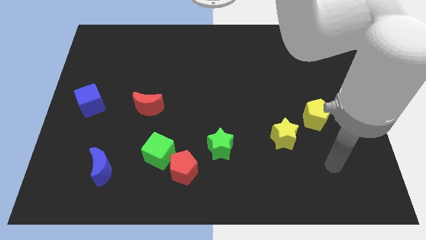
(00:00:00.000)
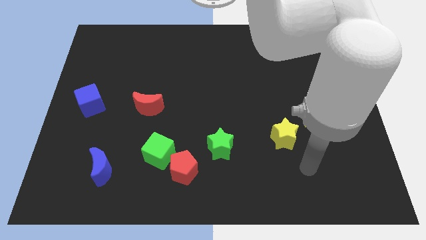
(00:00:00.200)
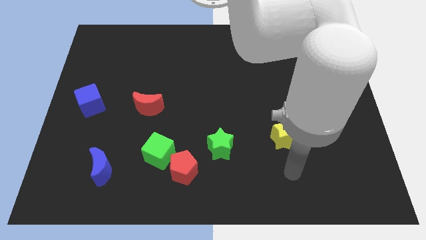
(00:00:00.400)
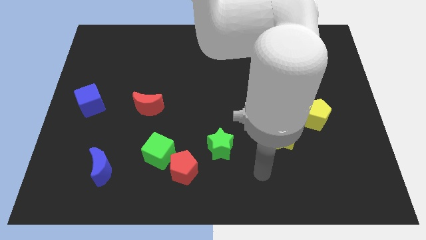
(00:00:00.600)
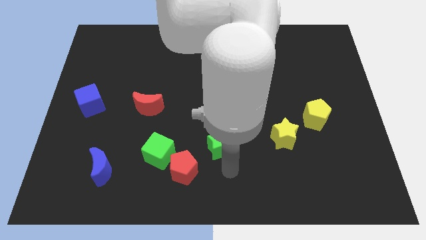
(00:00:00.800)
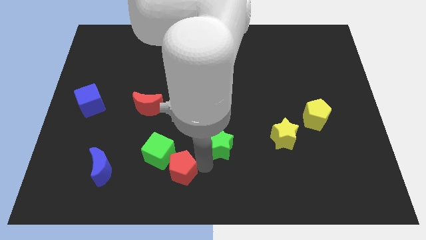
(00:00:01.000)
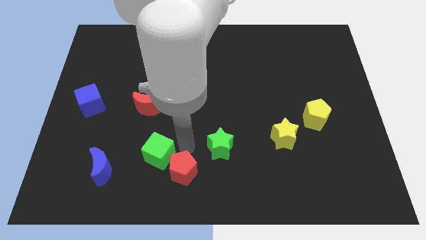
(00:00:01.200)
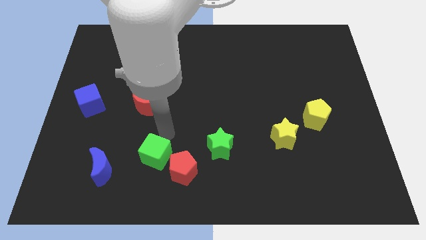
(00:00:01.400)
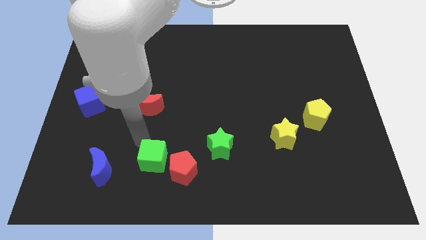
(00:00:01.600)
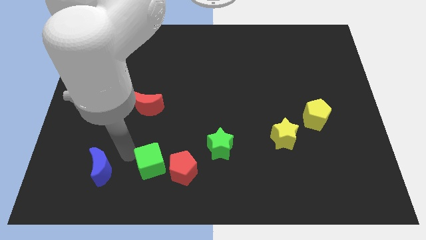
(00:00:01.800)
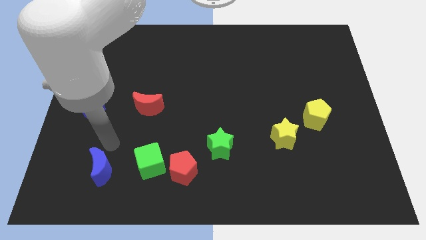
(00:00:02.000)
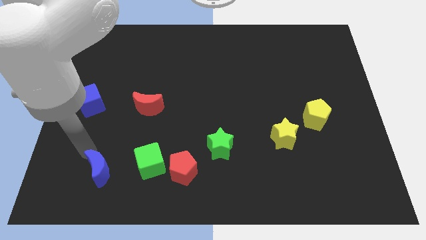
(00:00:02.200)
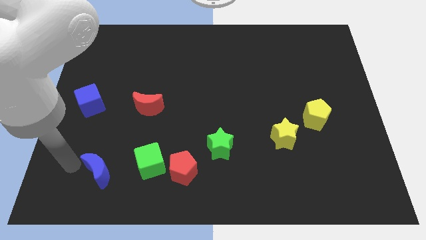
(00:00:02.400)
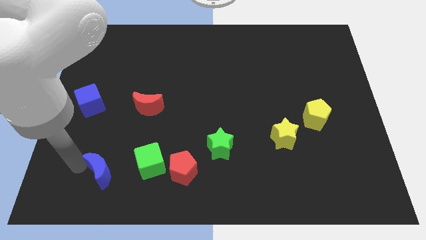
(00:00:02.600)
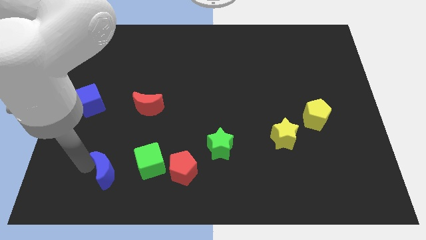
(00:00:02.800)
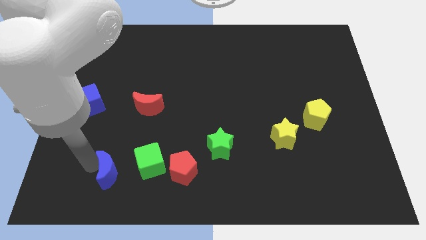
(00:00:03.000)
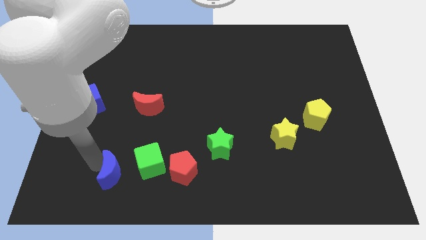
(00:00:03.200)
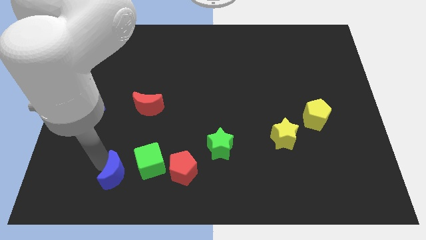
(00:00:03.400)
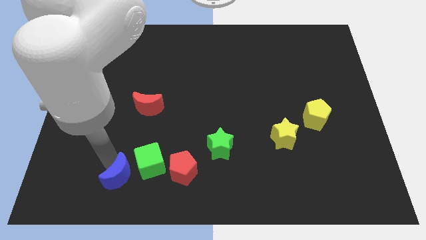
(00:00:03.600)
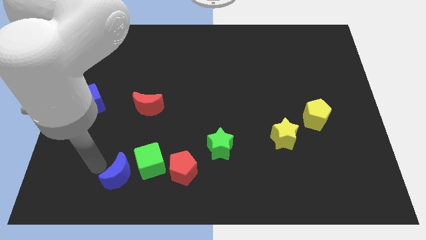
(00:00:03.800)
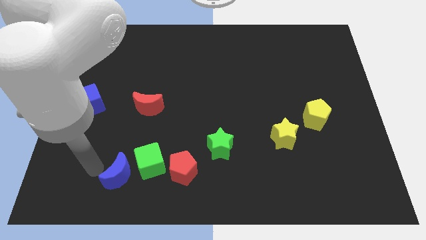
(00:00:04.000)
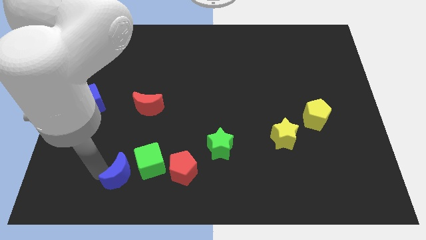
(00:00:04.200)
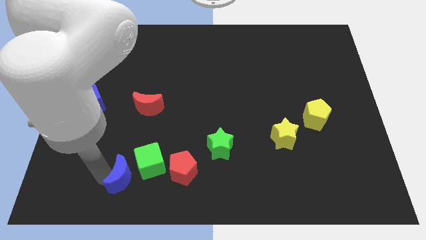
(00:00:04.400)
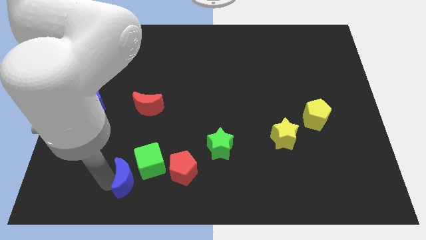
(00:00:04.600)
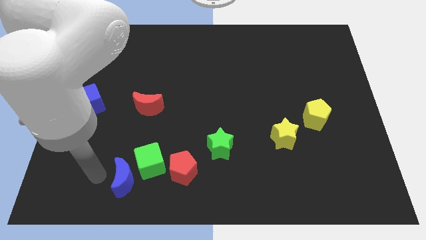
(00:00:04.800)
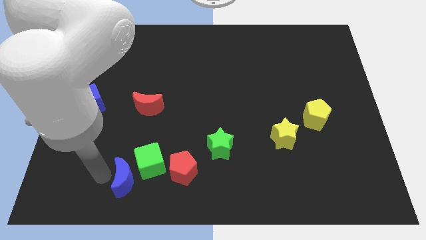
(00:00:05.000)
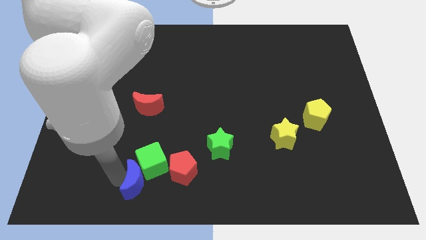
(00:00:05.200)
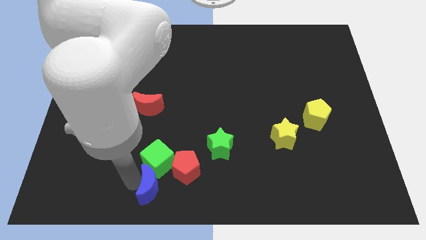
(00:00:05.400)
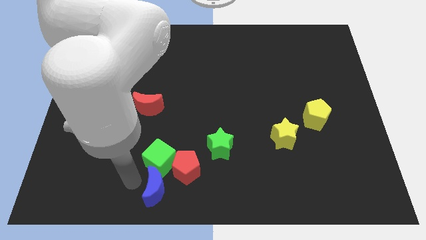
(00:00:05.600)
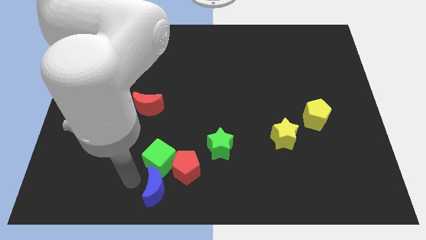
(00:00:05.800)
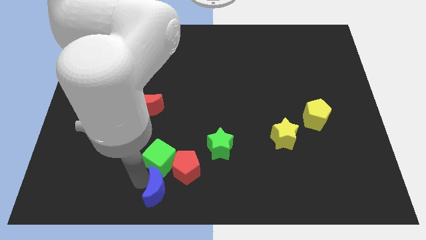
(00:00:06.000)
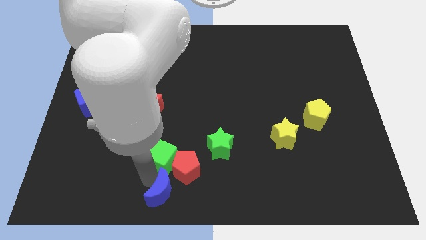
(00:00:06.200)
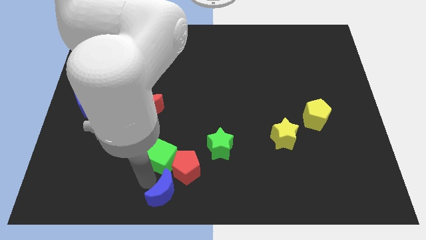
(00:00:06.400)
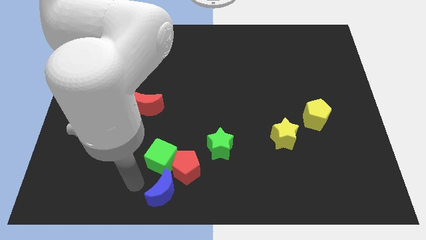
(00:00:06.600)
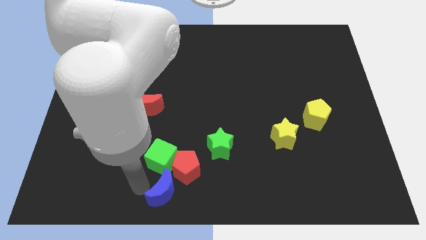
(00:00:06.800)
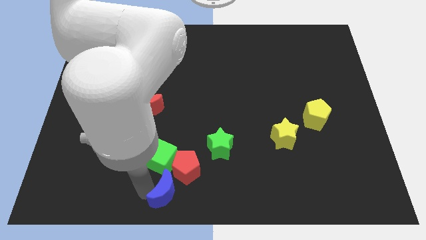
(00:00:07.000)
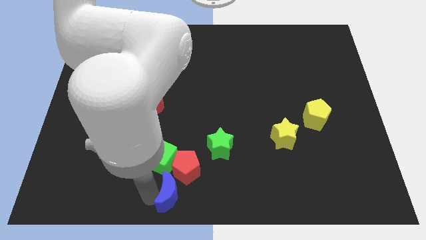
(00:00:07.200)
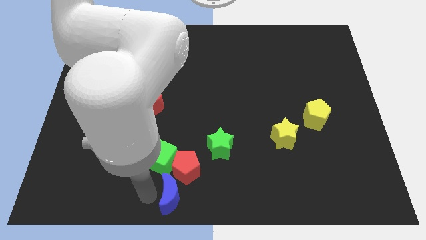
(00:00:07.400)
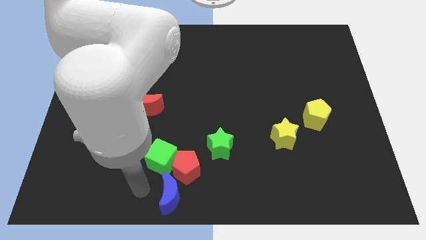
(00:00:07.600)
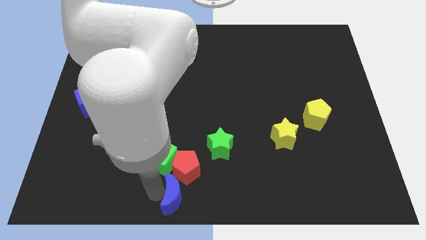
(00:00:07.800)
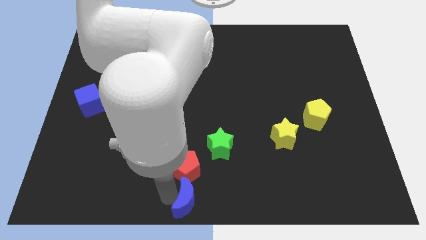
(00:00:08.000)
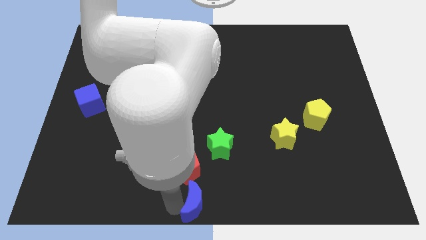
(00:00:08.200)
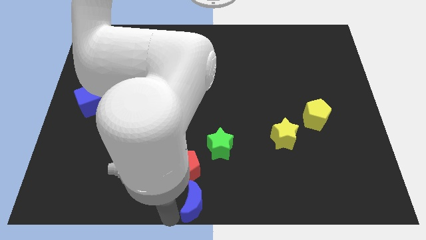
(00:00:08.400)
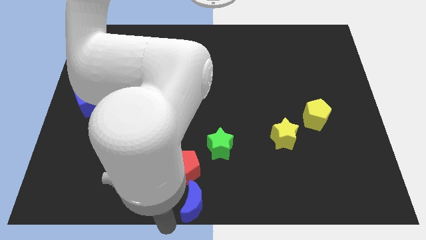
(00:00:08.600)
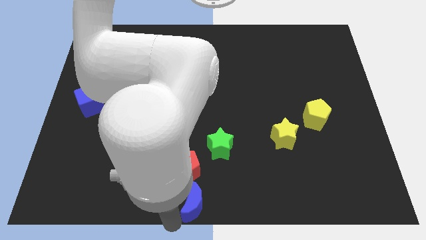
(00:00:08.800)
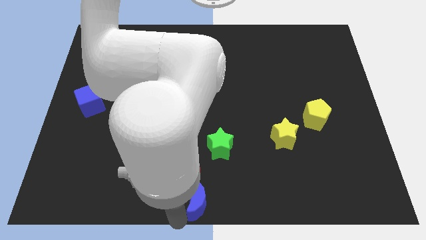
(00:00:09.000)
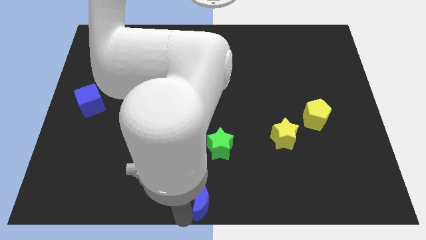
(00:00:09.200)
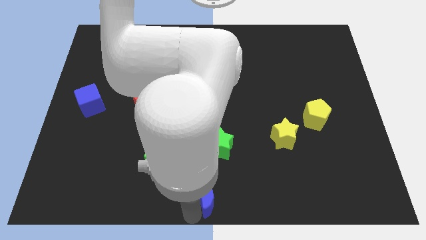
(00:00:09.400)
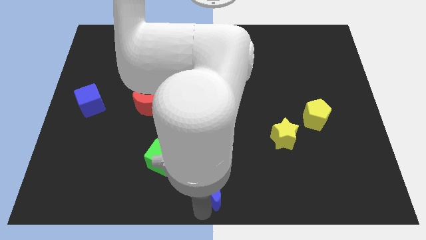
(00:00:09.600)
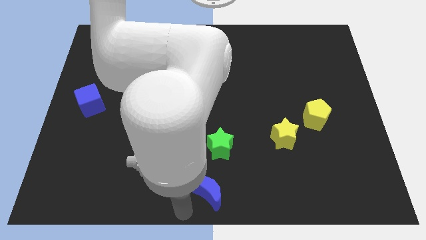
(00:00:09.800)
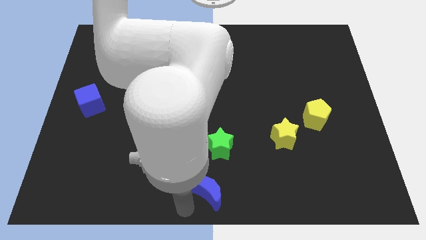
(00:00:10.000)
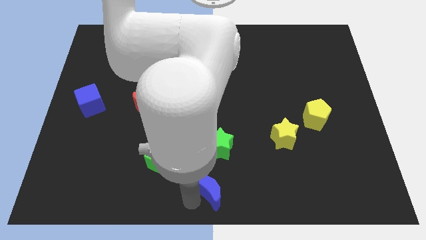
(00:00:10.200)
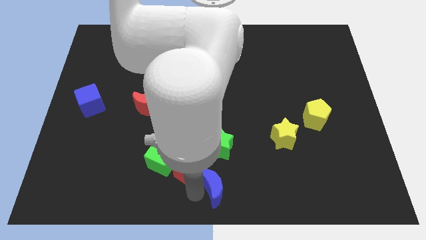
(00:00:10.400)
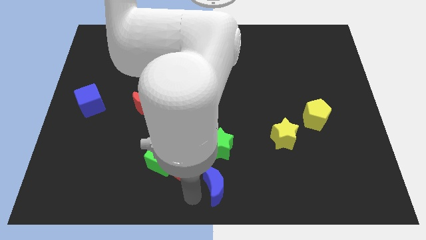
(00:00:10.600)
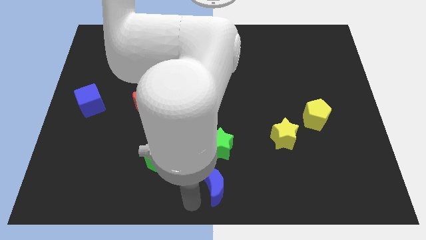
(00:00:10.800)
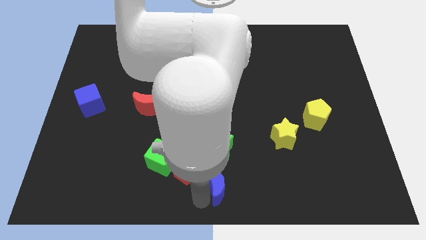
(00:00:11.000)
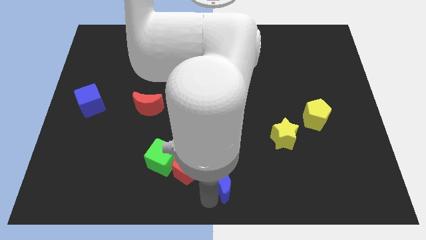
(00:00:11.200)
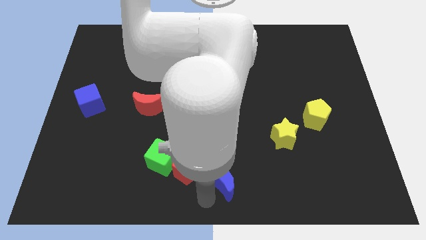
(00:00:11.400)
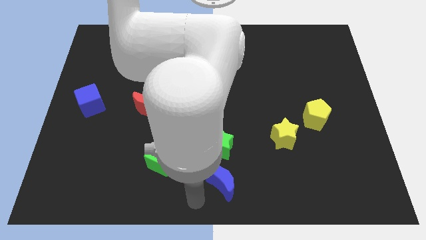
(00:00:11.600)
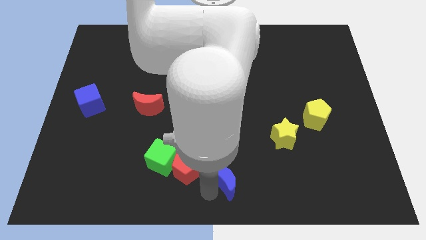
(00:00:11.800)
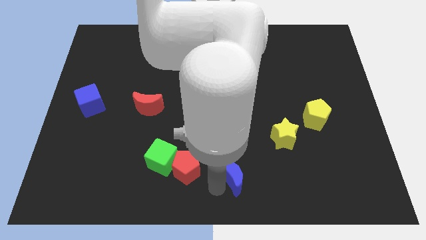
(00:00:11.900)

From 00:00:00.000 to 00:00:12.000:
slide the blue moon diagonally down and to the right of the green star

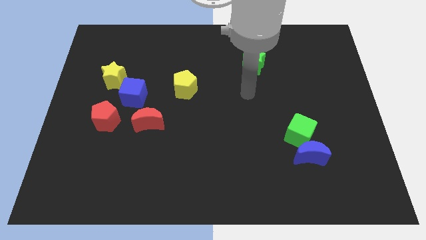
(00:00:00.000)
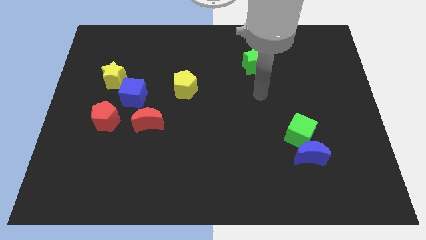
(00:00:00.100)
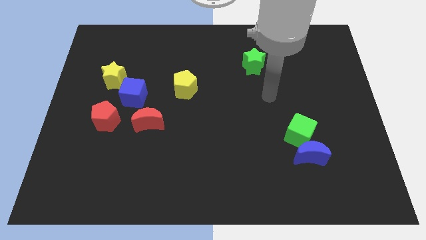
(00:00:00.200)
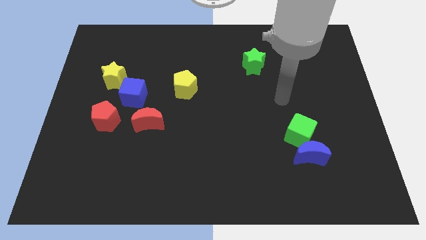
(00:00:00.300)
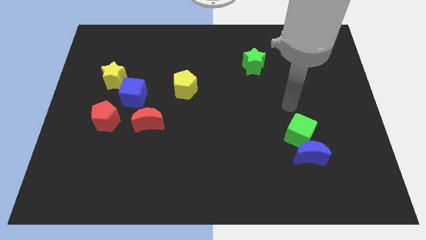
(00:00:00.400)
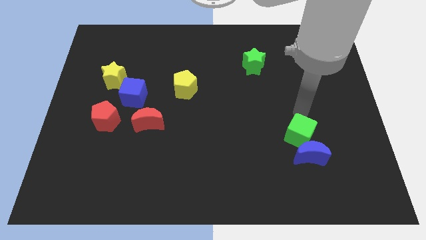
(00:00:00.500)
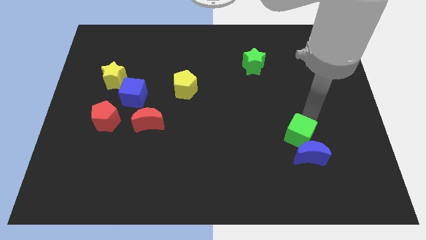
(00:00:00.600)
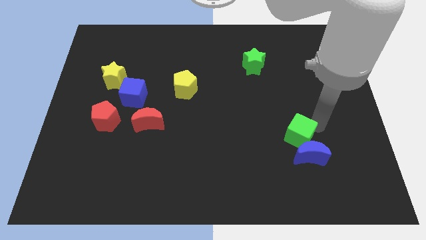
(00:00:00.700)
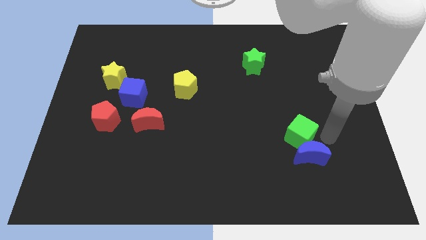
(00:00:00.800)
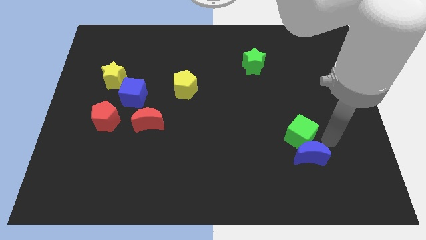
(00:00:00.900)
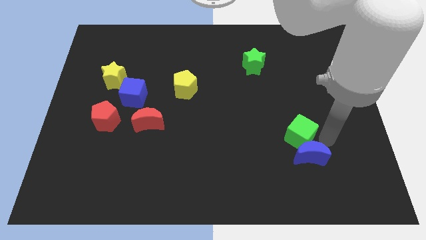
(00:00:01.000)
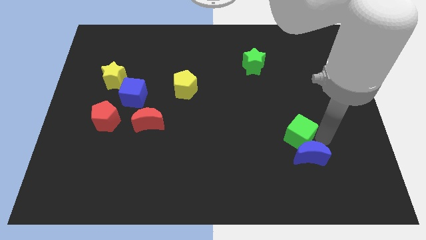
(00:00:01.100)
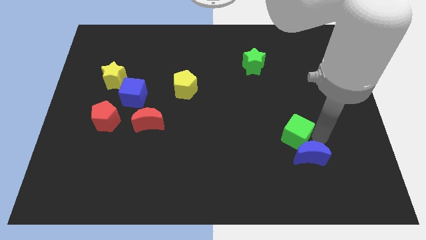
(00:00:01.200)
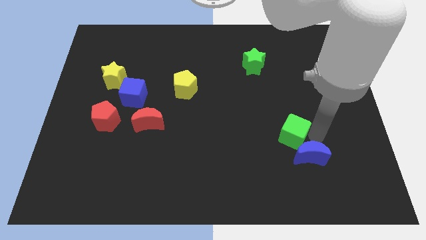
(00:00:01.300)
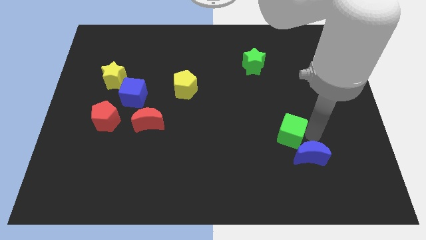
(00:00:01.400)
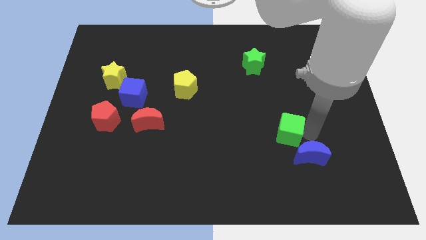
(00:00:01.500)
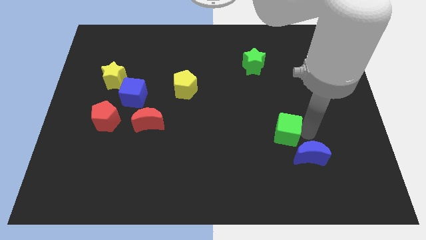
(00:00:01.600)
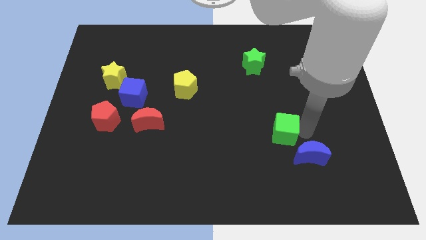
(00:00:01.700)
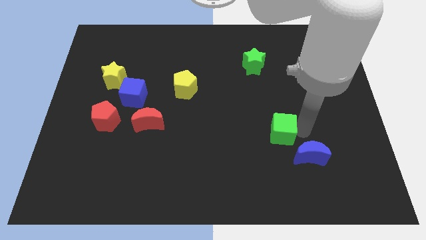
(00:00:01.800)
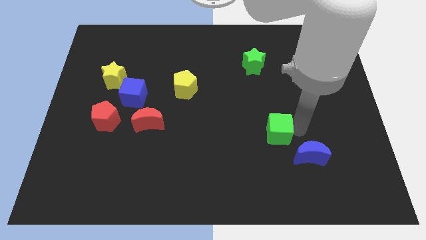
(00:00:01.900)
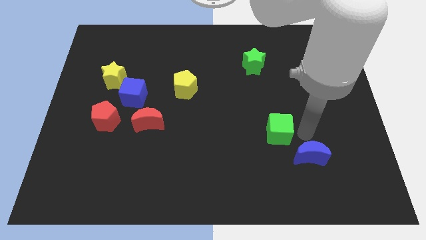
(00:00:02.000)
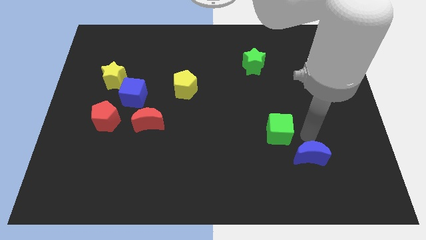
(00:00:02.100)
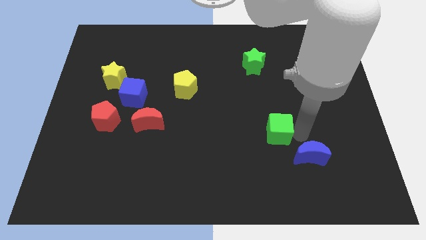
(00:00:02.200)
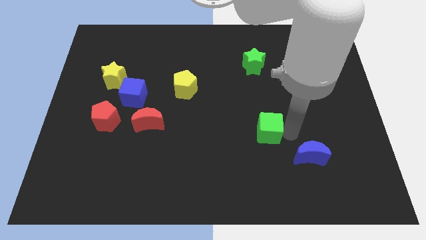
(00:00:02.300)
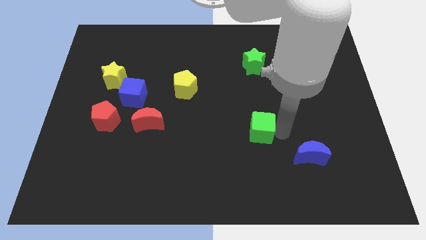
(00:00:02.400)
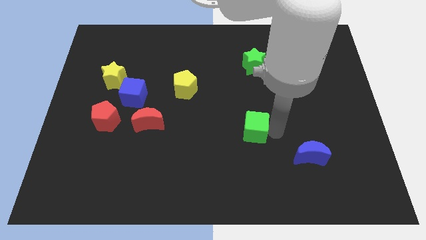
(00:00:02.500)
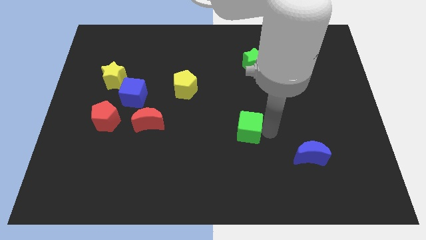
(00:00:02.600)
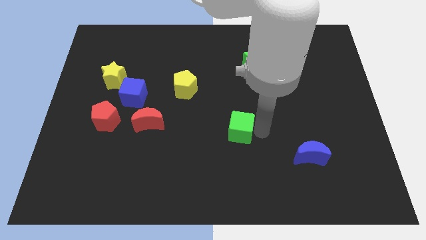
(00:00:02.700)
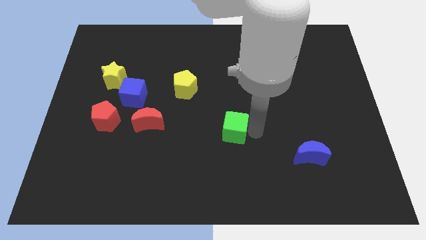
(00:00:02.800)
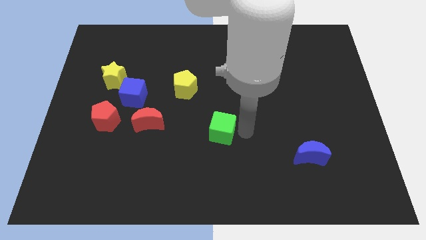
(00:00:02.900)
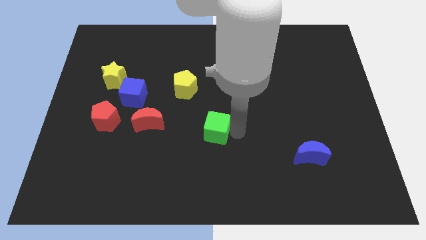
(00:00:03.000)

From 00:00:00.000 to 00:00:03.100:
move the green cube to the right side of the red moon
